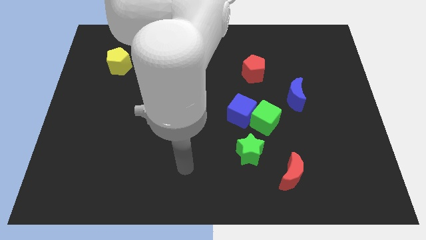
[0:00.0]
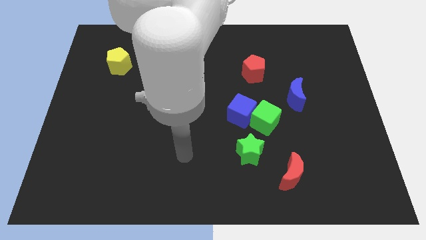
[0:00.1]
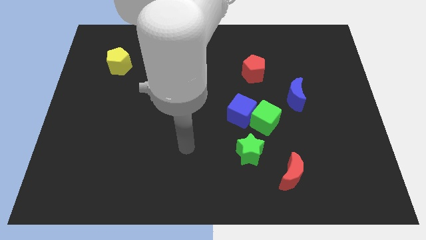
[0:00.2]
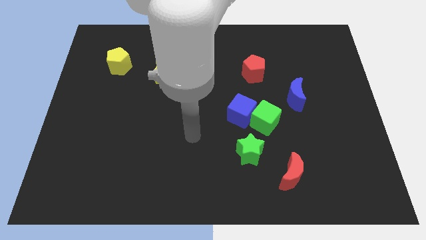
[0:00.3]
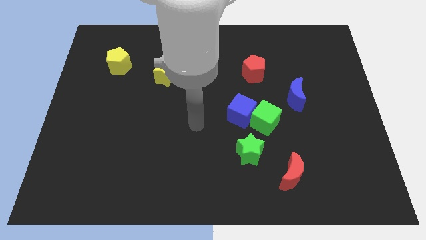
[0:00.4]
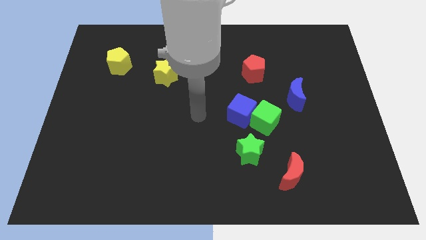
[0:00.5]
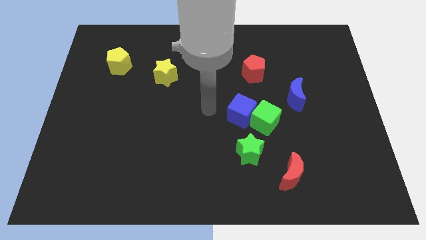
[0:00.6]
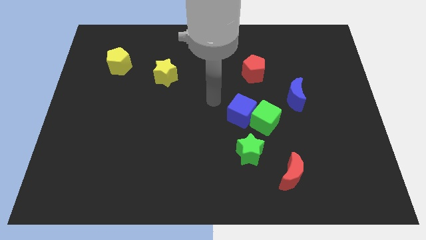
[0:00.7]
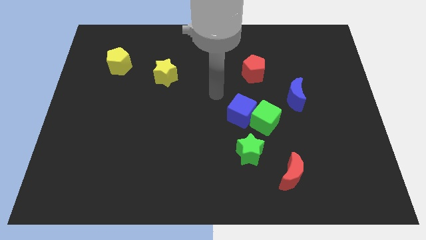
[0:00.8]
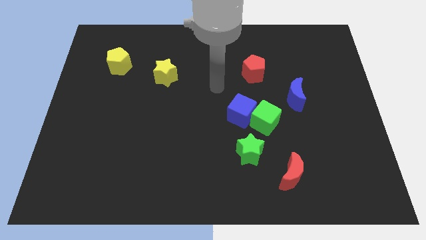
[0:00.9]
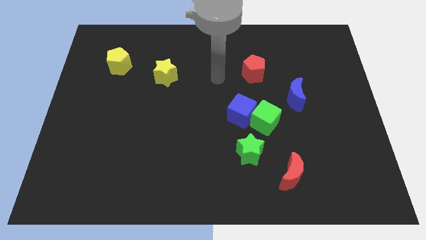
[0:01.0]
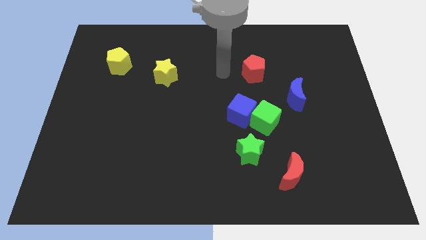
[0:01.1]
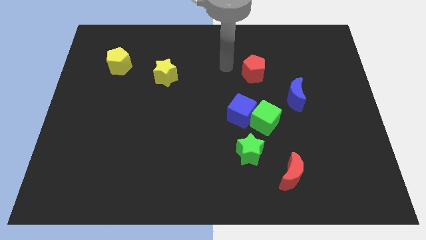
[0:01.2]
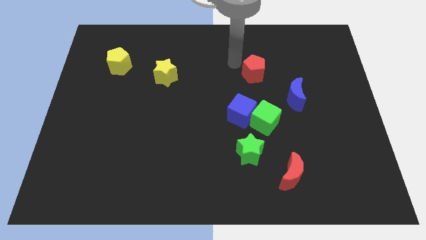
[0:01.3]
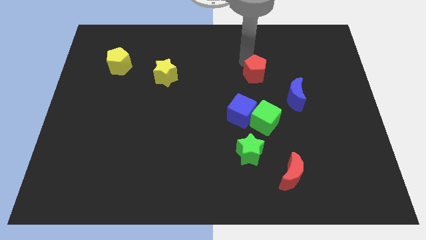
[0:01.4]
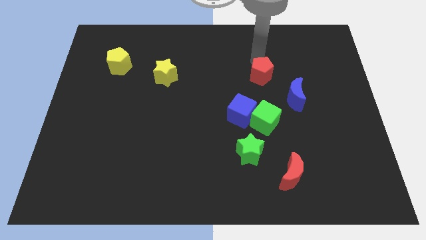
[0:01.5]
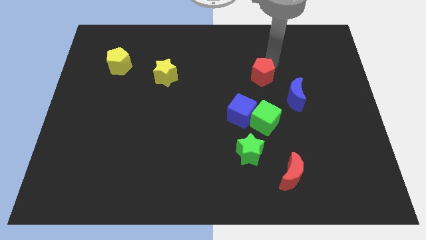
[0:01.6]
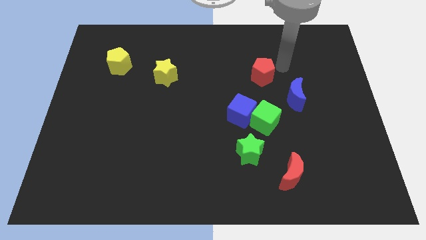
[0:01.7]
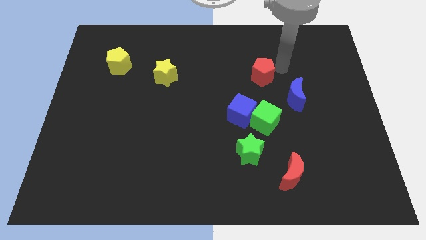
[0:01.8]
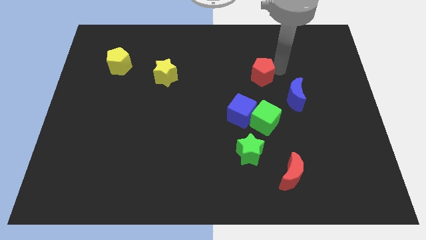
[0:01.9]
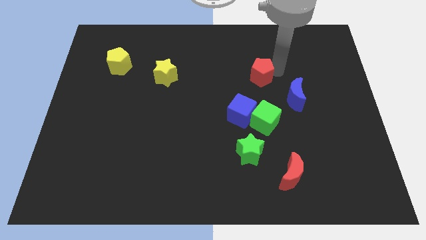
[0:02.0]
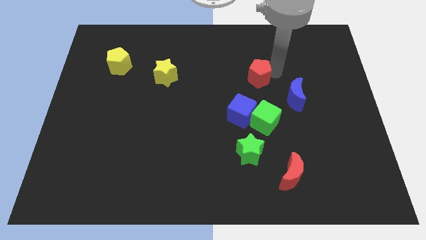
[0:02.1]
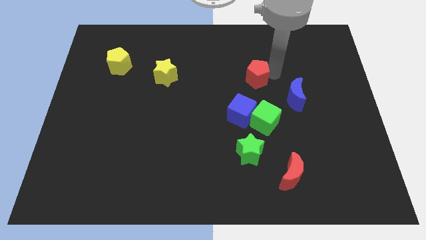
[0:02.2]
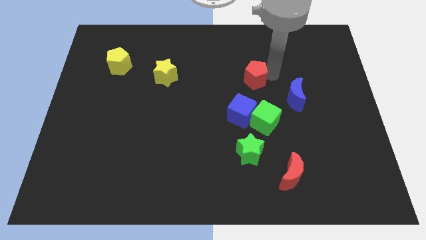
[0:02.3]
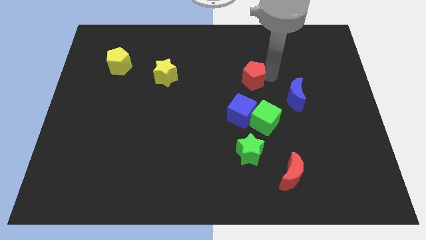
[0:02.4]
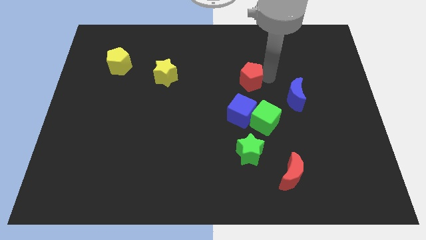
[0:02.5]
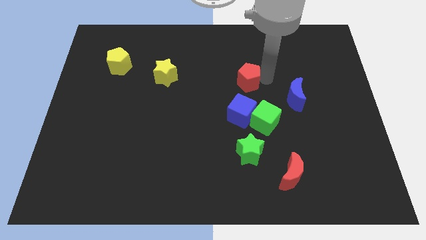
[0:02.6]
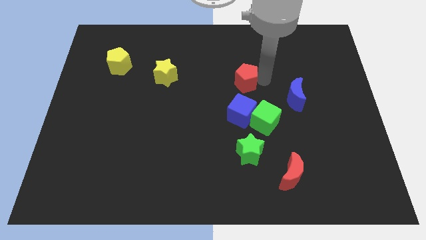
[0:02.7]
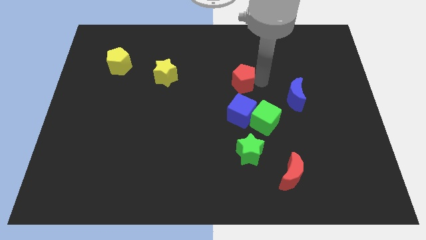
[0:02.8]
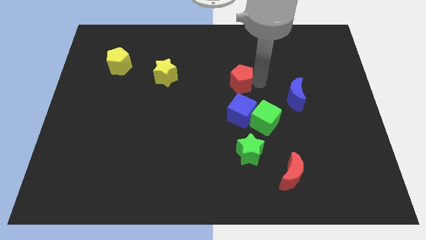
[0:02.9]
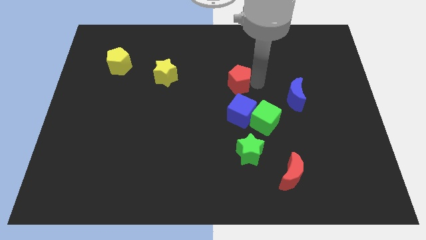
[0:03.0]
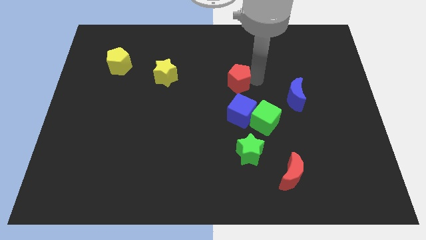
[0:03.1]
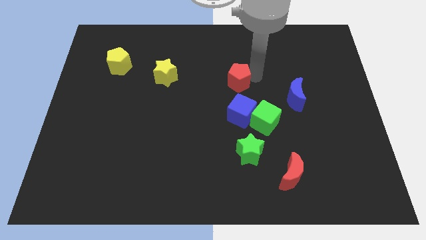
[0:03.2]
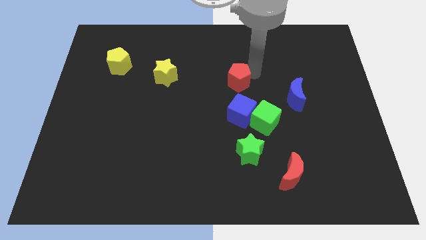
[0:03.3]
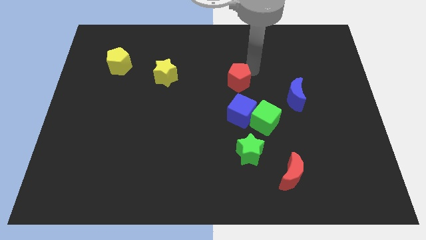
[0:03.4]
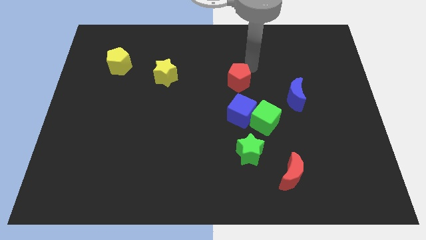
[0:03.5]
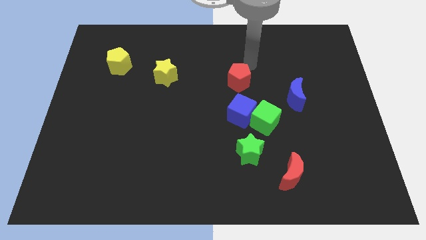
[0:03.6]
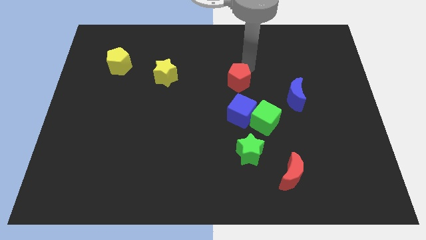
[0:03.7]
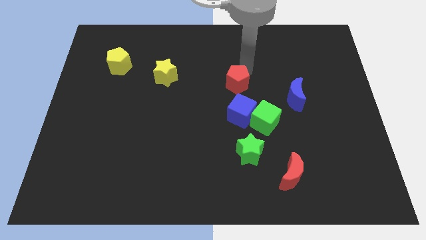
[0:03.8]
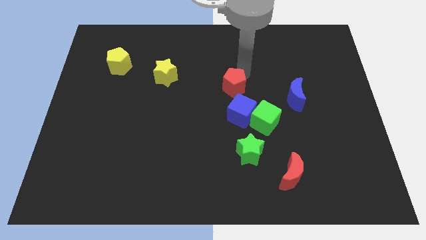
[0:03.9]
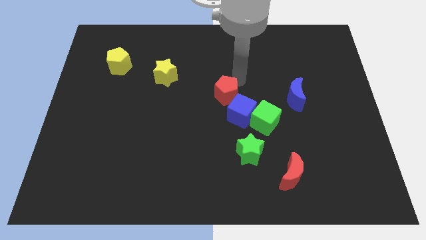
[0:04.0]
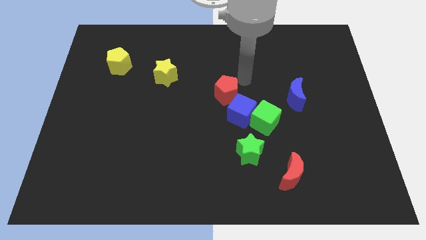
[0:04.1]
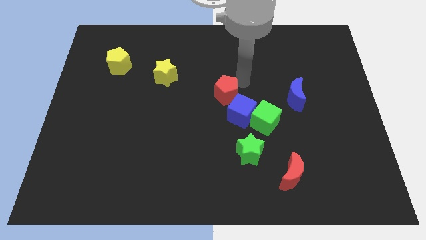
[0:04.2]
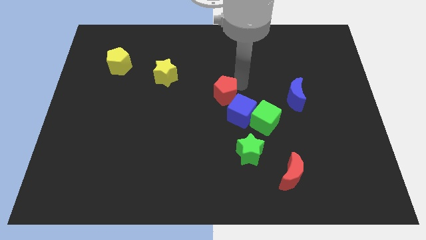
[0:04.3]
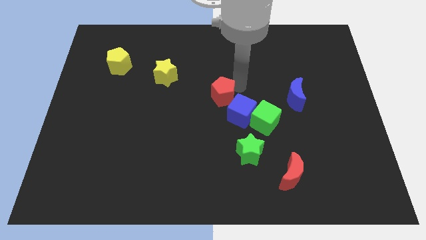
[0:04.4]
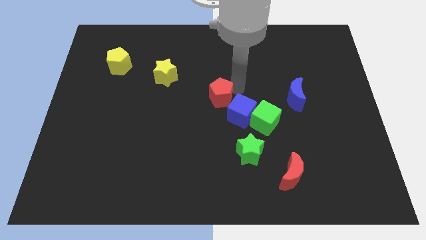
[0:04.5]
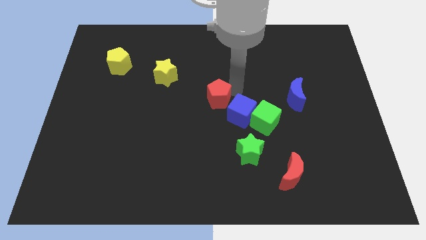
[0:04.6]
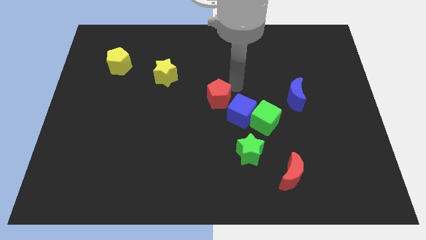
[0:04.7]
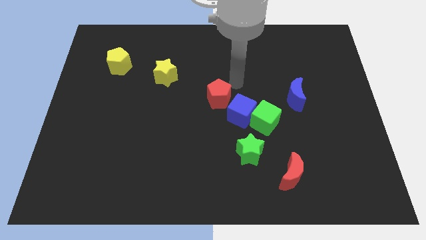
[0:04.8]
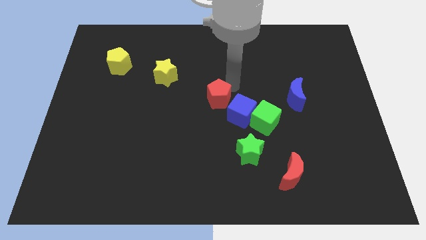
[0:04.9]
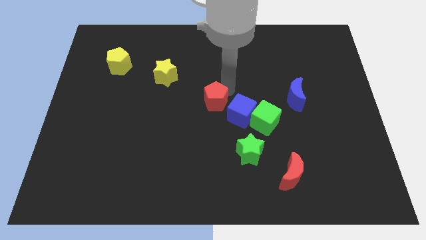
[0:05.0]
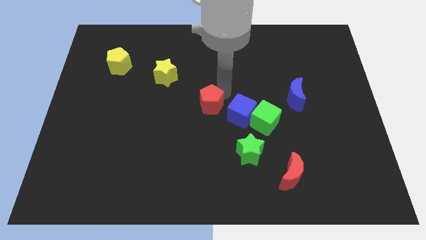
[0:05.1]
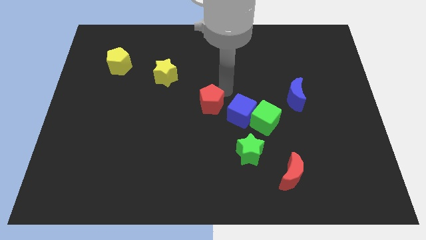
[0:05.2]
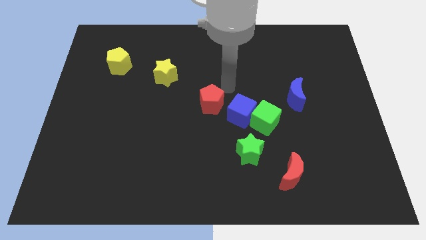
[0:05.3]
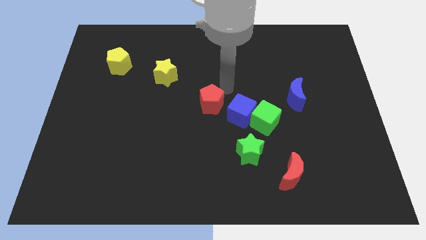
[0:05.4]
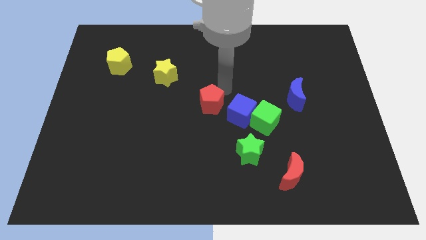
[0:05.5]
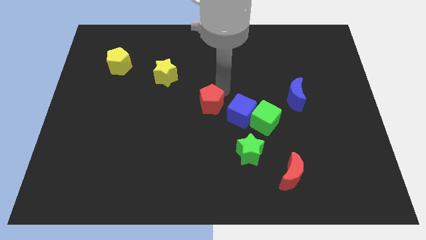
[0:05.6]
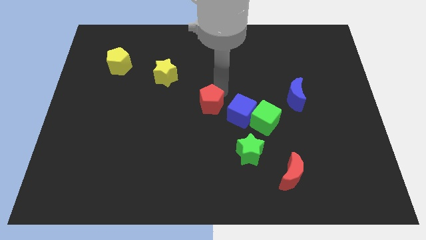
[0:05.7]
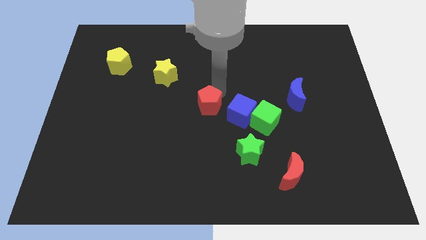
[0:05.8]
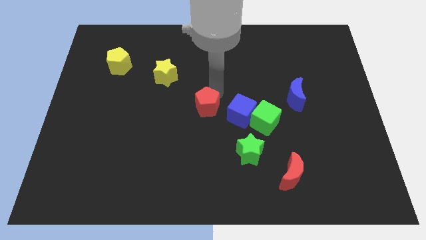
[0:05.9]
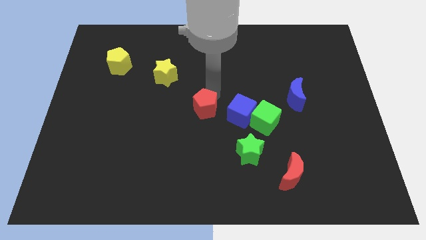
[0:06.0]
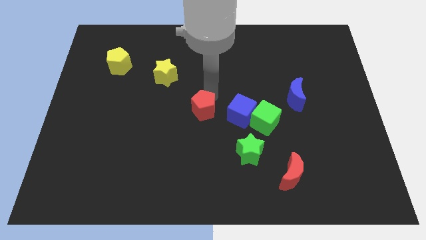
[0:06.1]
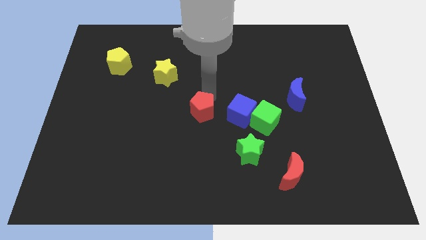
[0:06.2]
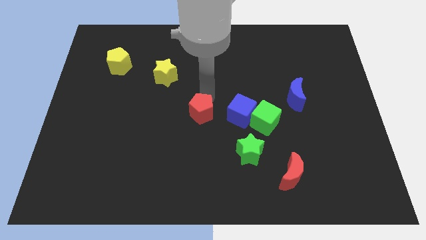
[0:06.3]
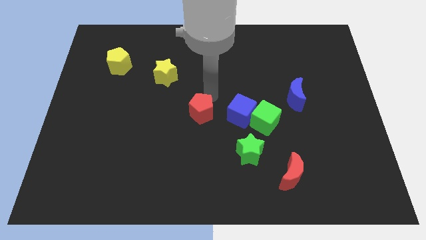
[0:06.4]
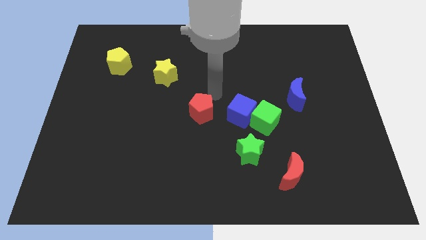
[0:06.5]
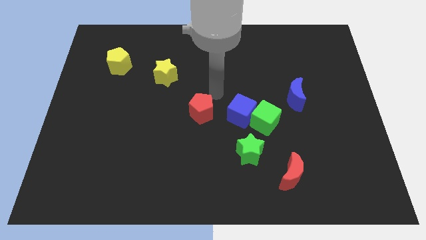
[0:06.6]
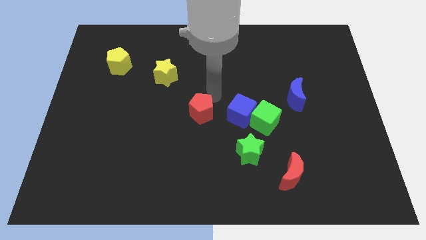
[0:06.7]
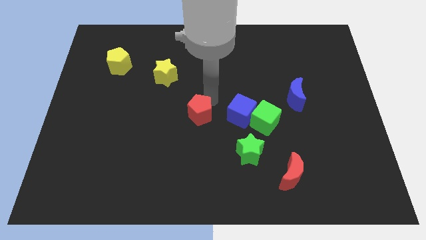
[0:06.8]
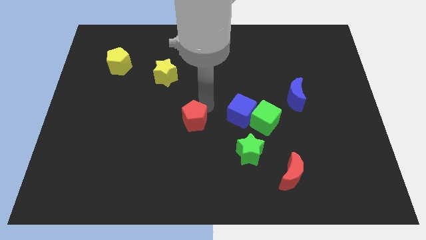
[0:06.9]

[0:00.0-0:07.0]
push the red pentagon down and then to the left

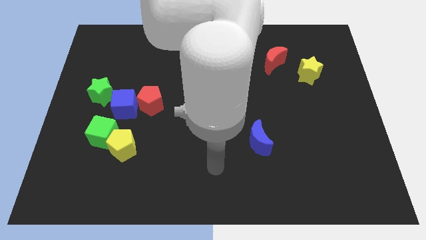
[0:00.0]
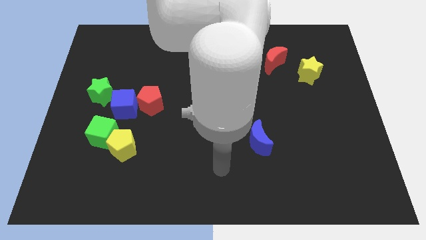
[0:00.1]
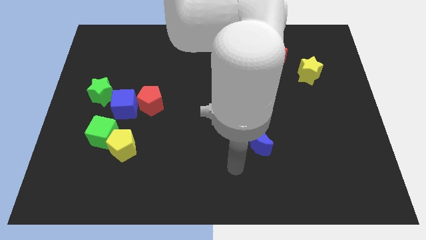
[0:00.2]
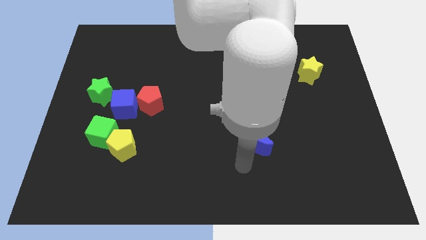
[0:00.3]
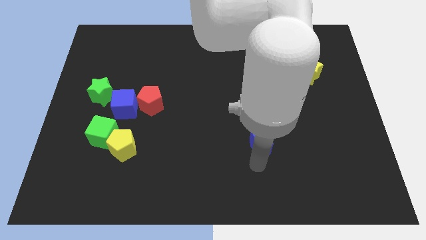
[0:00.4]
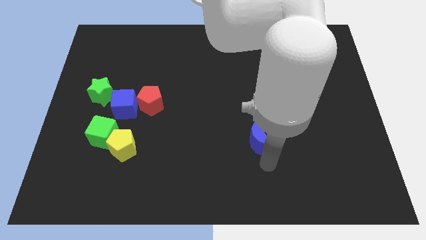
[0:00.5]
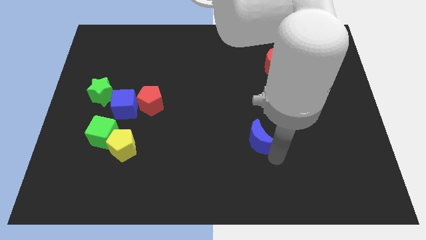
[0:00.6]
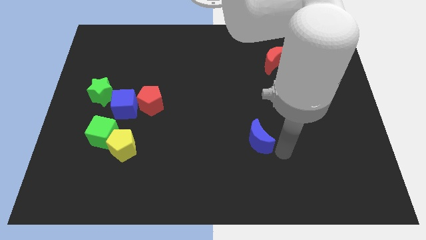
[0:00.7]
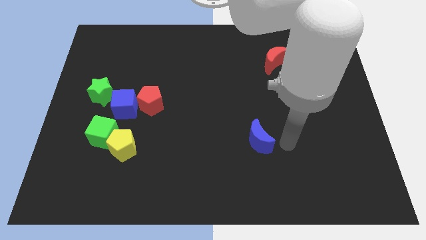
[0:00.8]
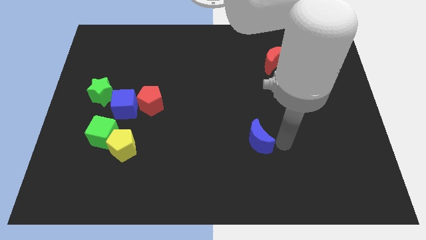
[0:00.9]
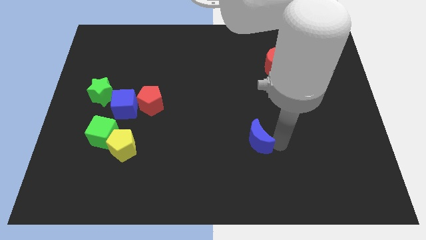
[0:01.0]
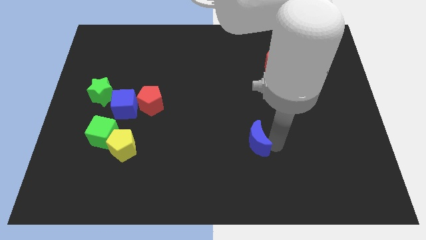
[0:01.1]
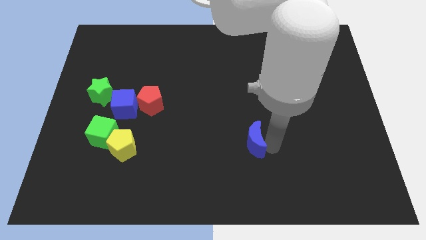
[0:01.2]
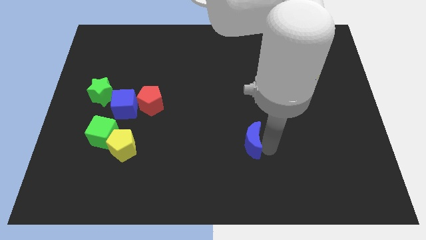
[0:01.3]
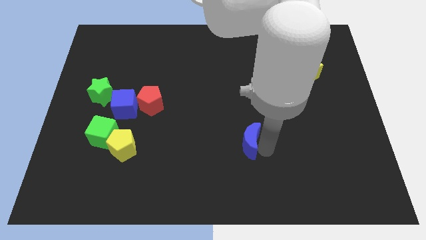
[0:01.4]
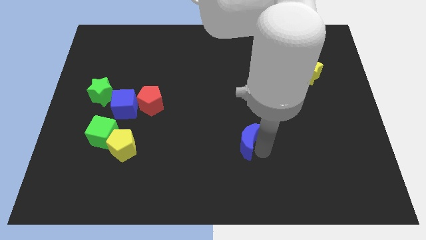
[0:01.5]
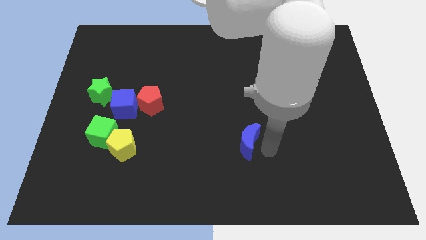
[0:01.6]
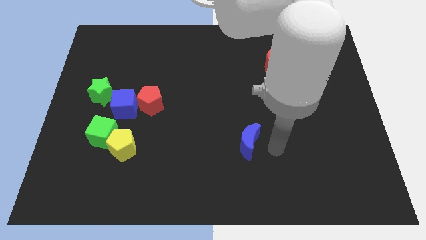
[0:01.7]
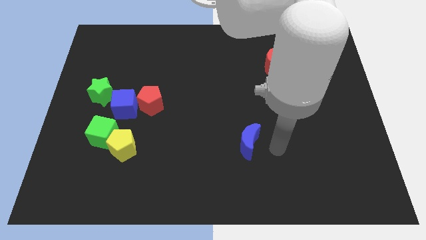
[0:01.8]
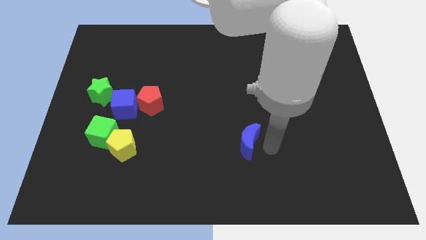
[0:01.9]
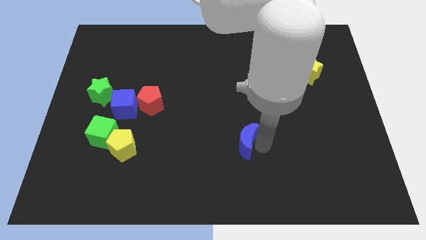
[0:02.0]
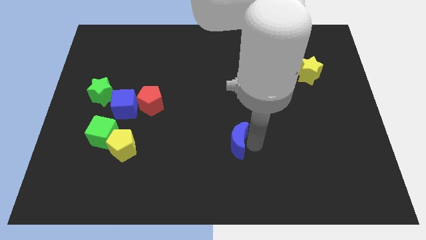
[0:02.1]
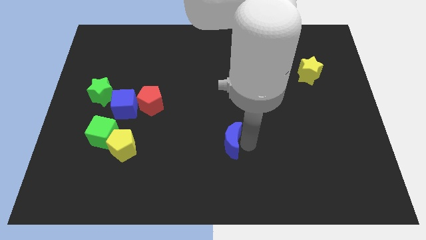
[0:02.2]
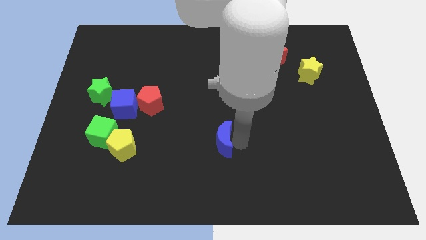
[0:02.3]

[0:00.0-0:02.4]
push the blue moon somewhat to the left
